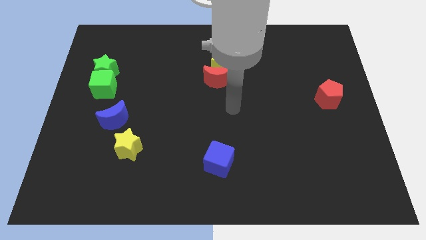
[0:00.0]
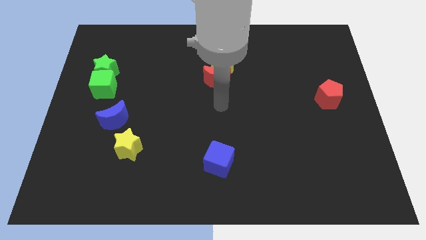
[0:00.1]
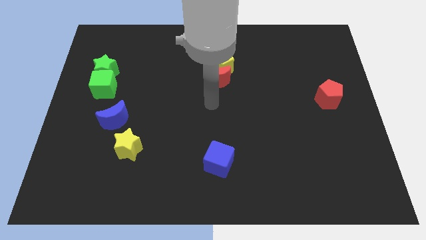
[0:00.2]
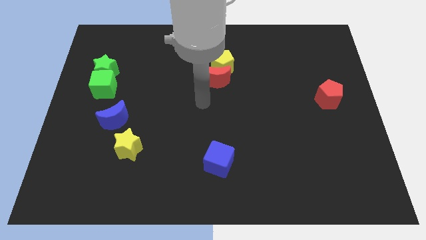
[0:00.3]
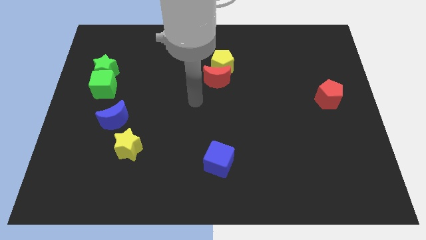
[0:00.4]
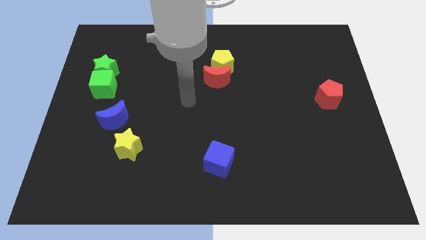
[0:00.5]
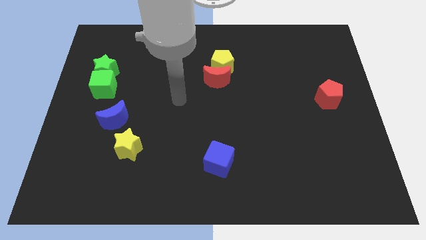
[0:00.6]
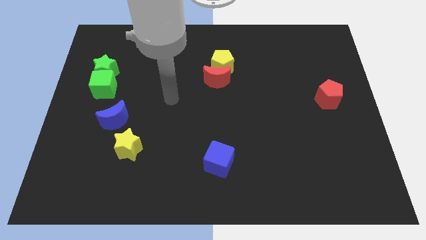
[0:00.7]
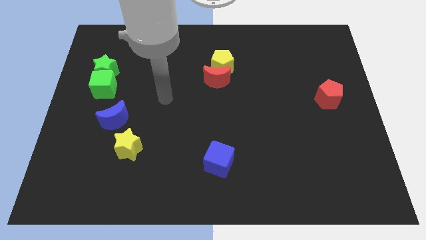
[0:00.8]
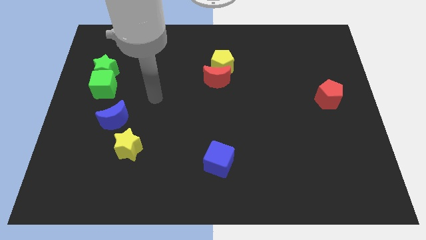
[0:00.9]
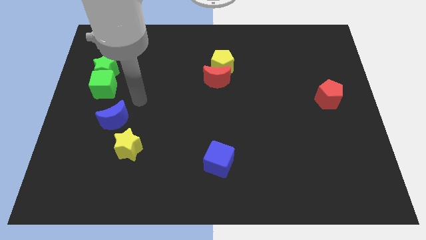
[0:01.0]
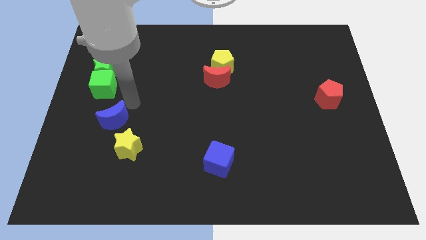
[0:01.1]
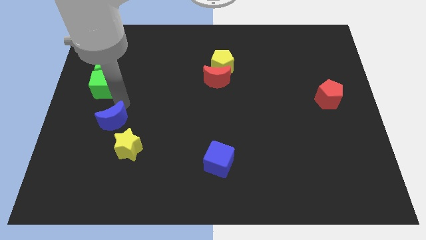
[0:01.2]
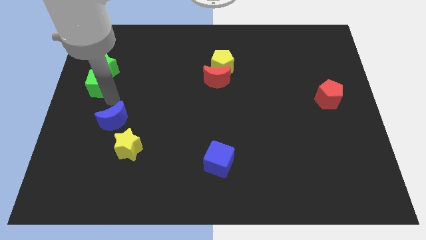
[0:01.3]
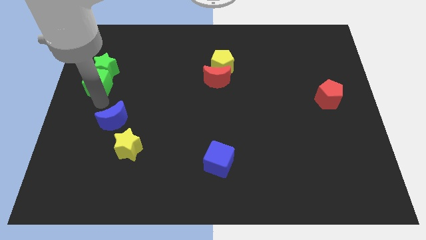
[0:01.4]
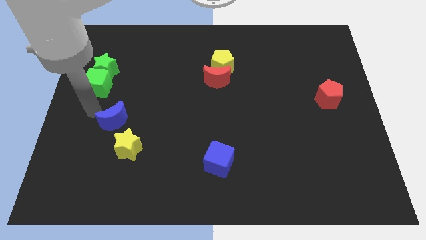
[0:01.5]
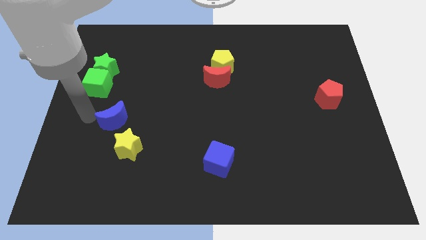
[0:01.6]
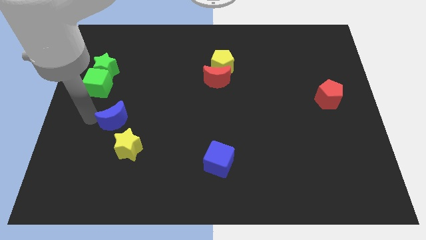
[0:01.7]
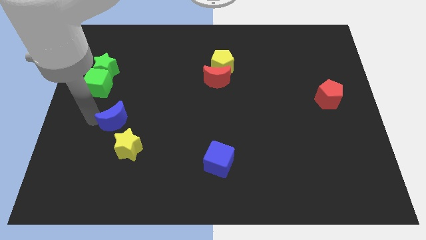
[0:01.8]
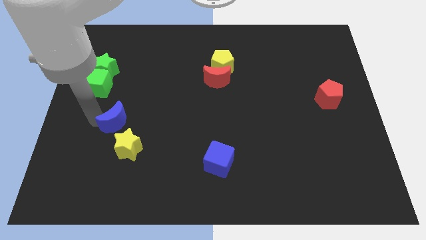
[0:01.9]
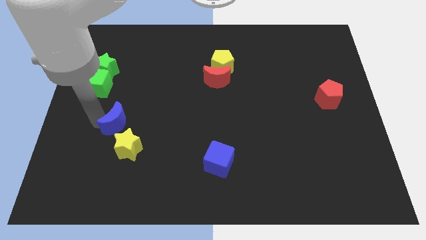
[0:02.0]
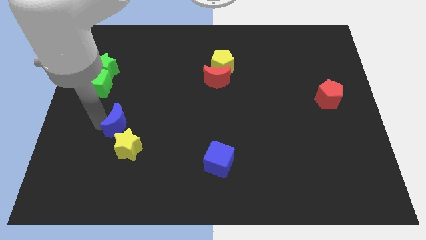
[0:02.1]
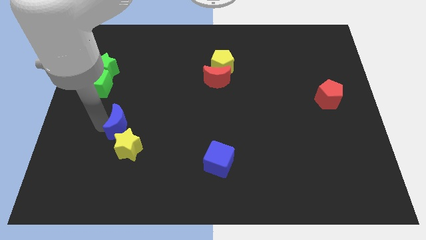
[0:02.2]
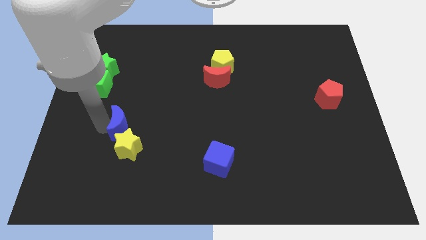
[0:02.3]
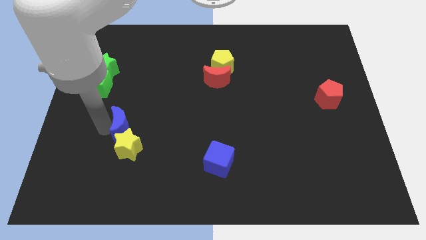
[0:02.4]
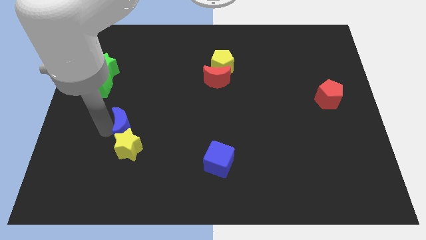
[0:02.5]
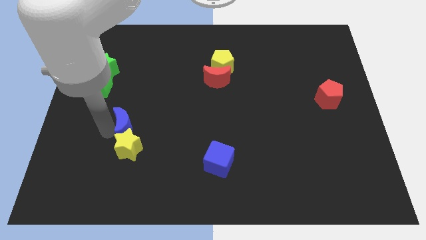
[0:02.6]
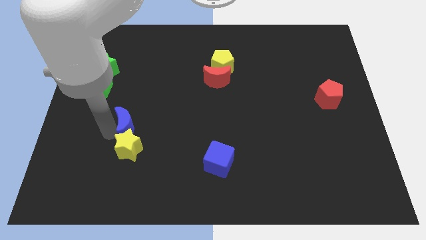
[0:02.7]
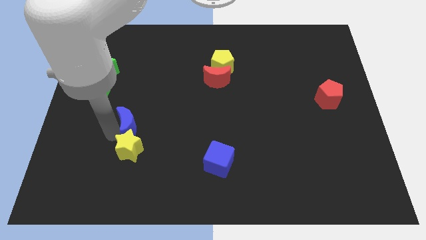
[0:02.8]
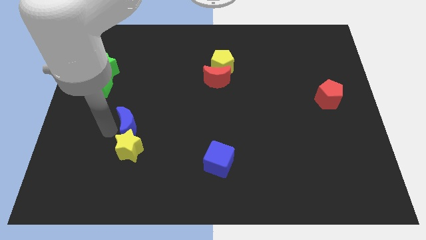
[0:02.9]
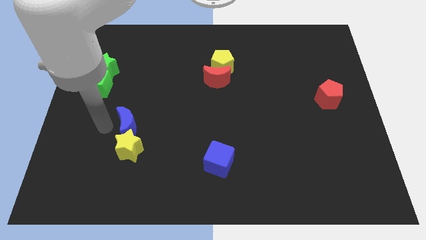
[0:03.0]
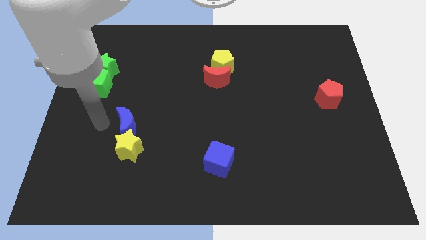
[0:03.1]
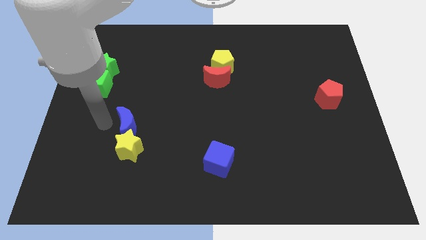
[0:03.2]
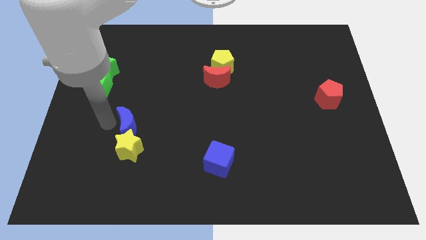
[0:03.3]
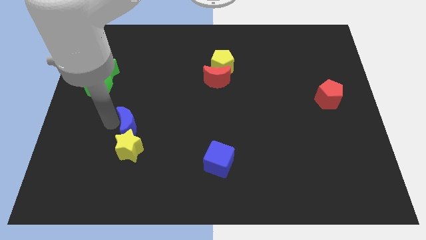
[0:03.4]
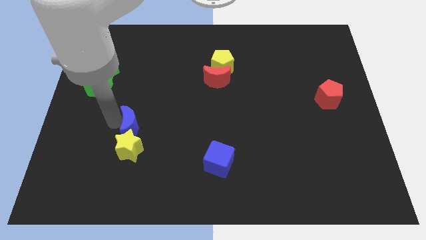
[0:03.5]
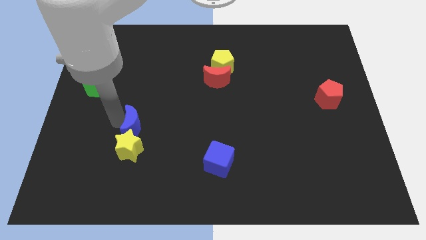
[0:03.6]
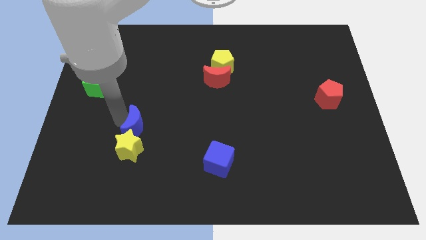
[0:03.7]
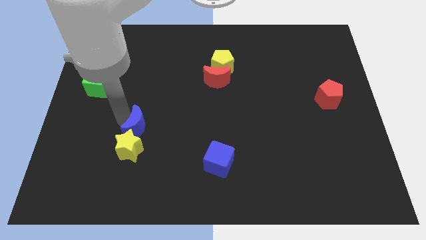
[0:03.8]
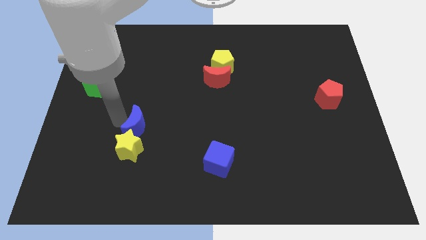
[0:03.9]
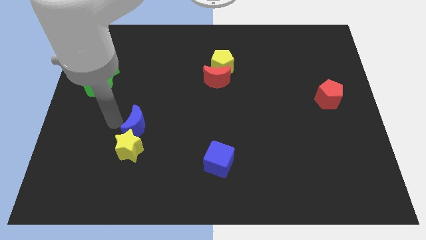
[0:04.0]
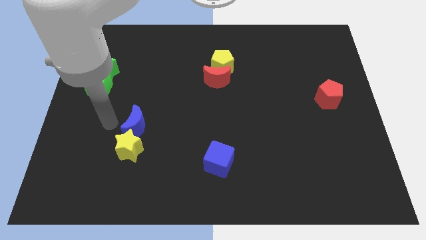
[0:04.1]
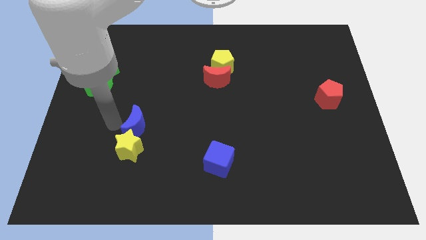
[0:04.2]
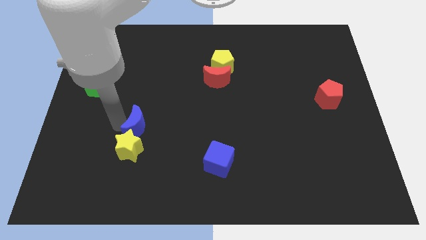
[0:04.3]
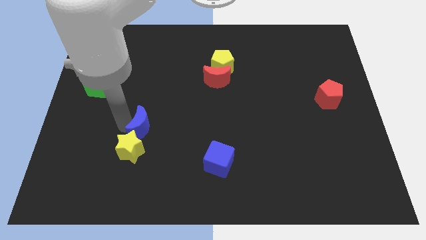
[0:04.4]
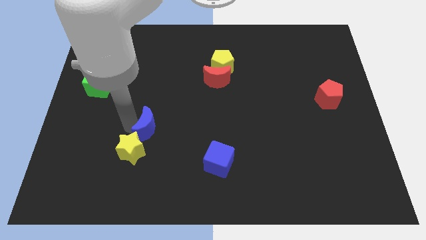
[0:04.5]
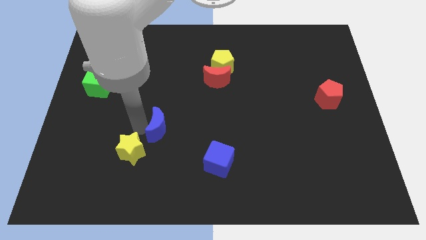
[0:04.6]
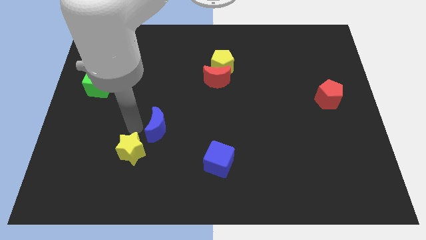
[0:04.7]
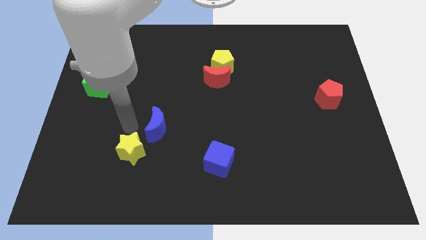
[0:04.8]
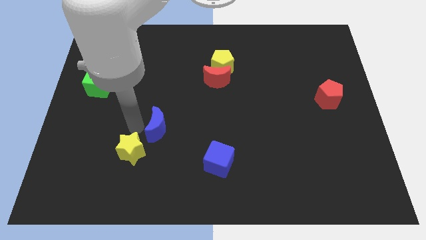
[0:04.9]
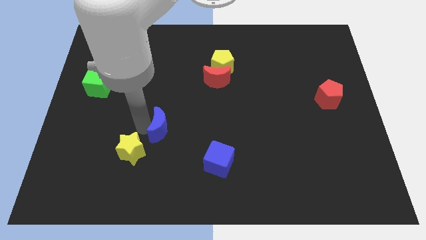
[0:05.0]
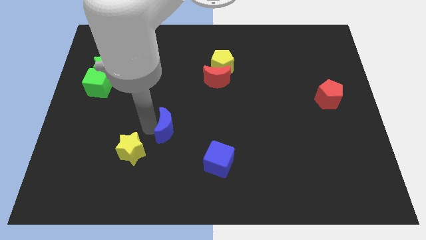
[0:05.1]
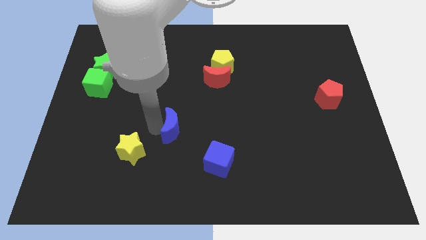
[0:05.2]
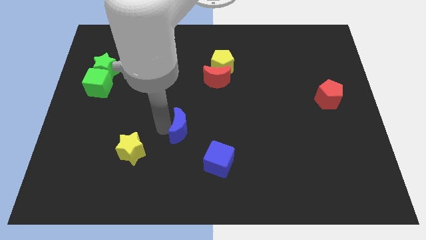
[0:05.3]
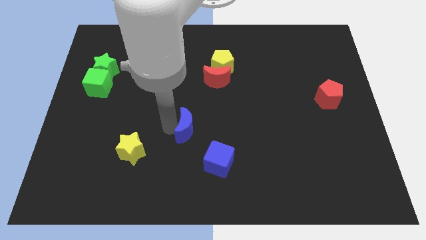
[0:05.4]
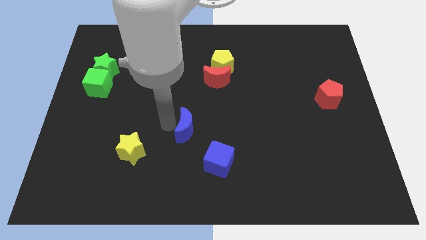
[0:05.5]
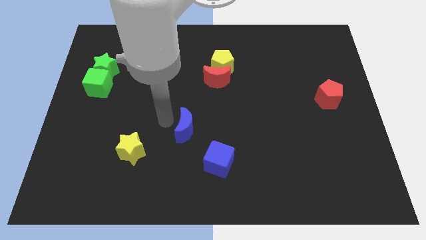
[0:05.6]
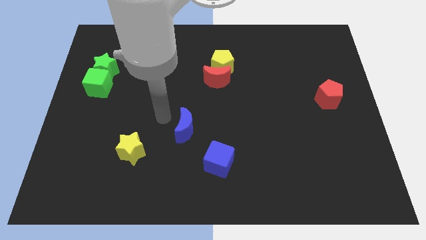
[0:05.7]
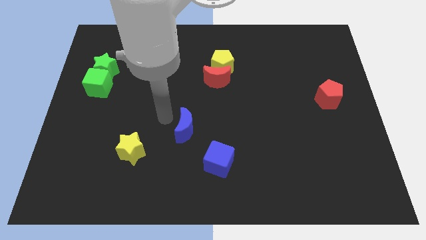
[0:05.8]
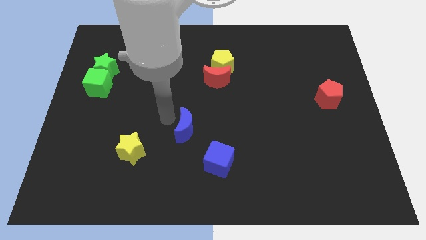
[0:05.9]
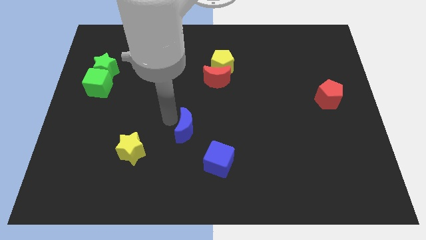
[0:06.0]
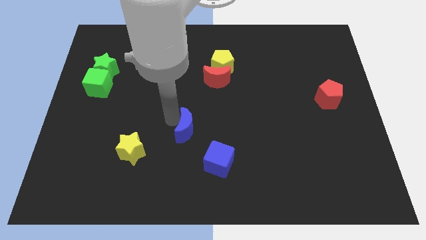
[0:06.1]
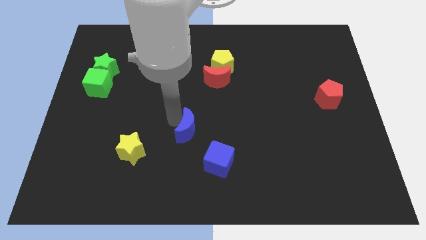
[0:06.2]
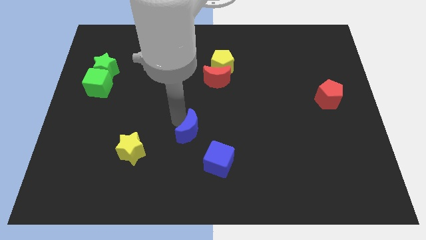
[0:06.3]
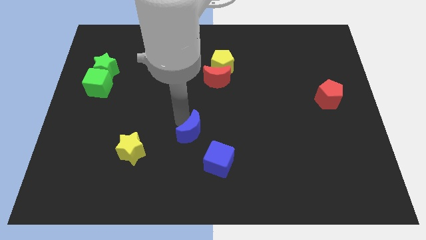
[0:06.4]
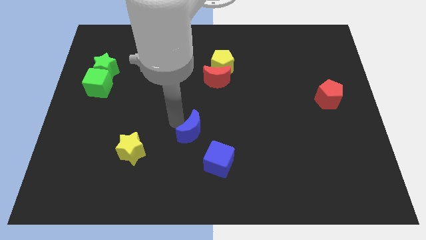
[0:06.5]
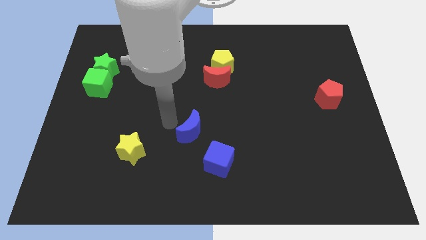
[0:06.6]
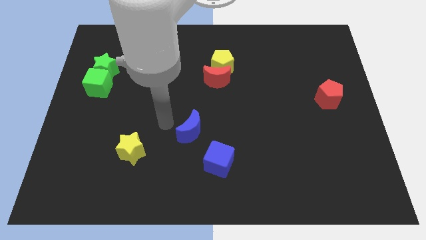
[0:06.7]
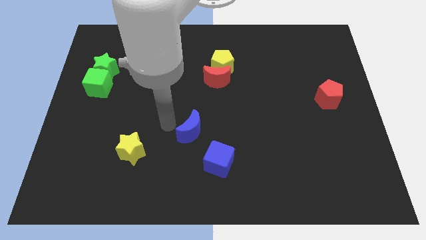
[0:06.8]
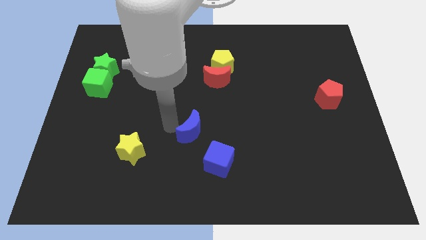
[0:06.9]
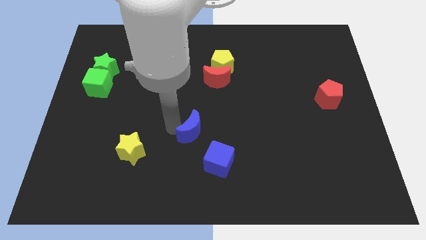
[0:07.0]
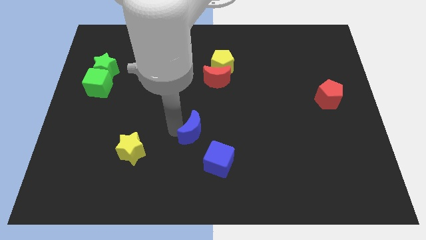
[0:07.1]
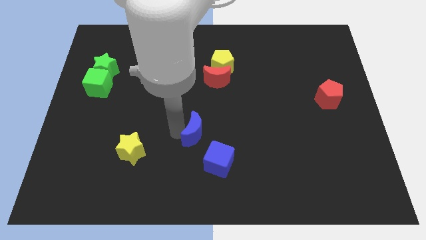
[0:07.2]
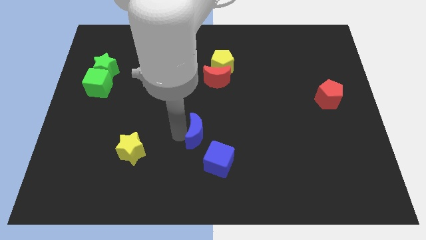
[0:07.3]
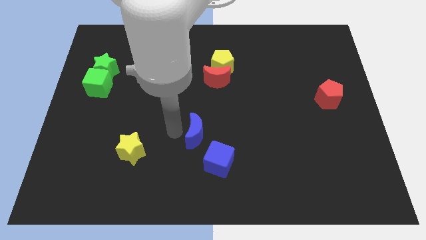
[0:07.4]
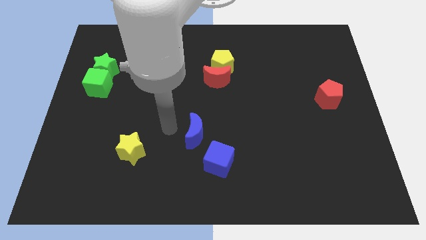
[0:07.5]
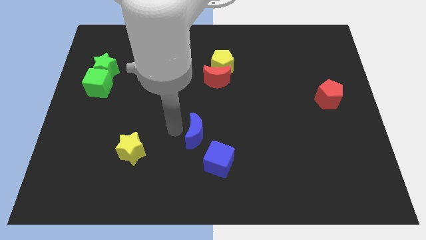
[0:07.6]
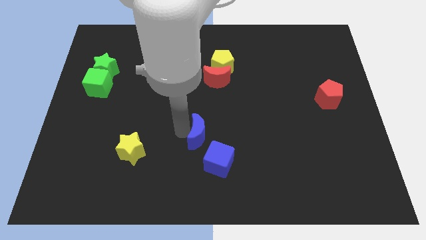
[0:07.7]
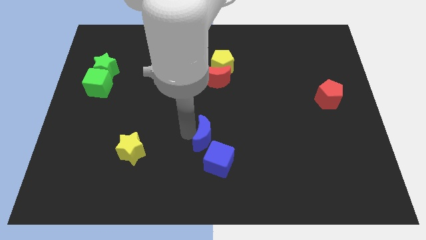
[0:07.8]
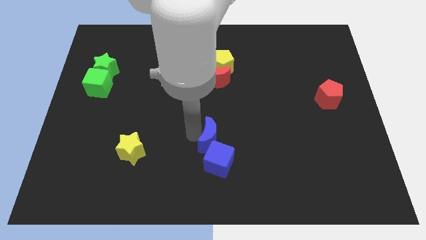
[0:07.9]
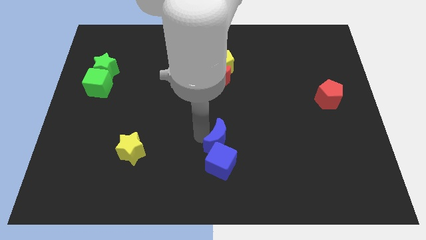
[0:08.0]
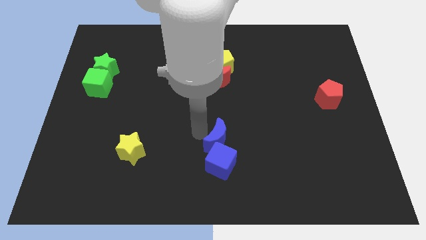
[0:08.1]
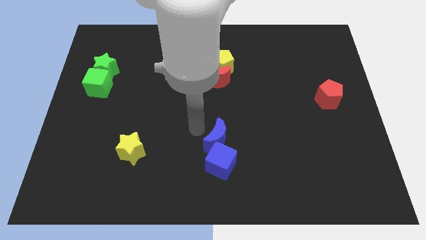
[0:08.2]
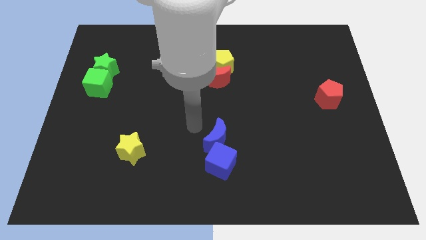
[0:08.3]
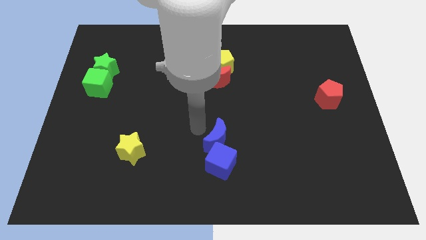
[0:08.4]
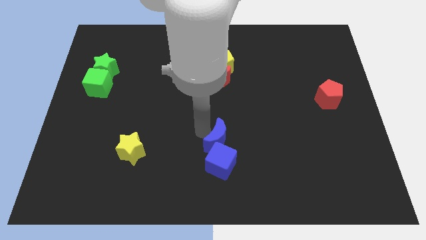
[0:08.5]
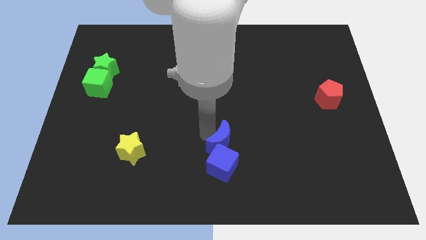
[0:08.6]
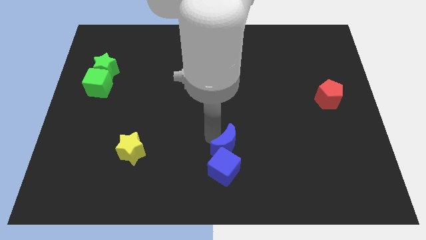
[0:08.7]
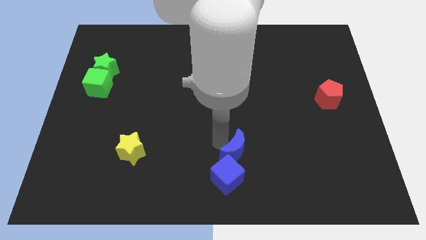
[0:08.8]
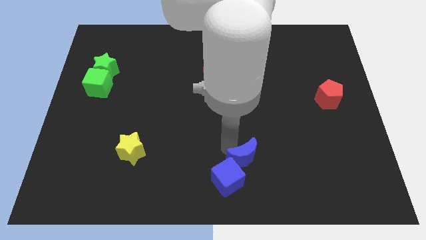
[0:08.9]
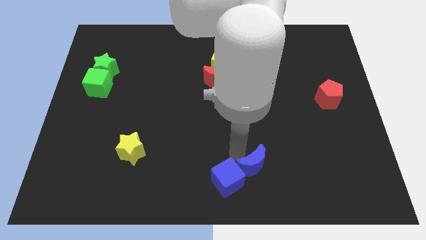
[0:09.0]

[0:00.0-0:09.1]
slide the blue moon to the right side of the blue cube
